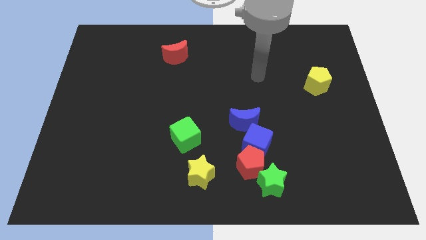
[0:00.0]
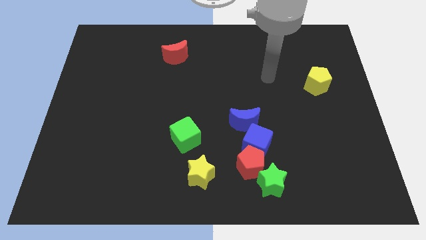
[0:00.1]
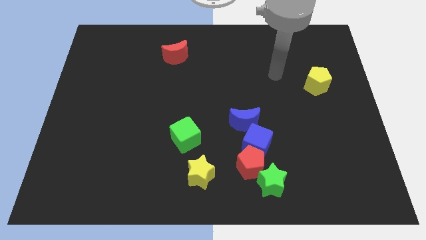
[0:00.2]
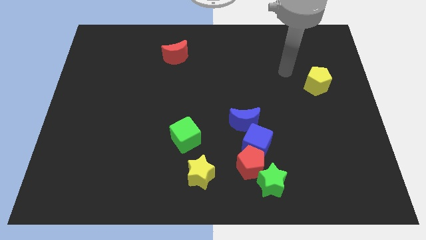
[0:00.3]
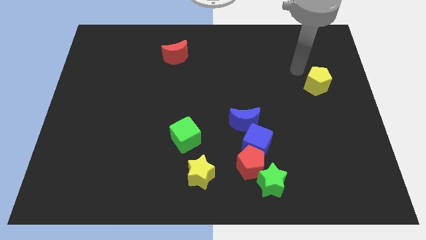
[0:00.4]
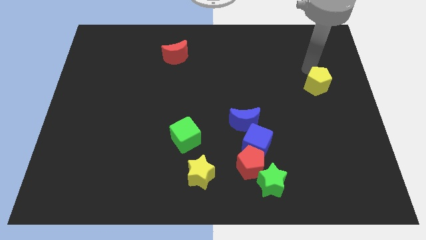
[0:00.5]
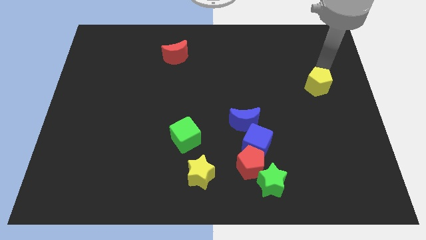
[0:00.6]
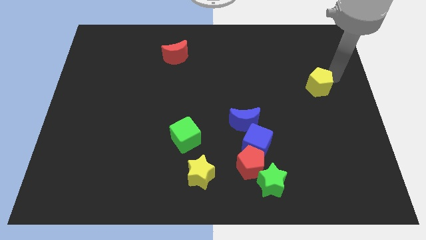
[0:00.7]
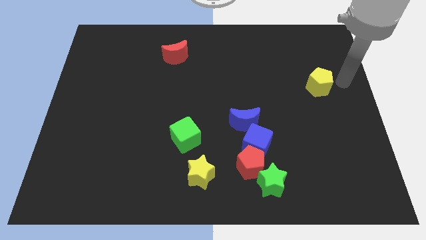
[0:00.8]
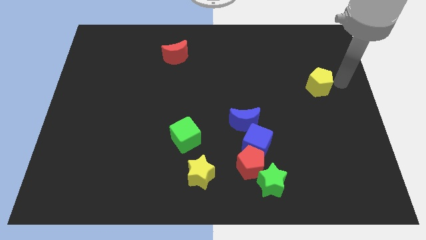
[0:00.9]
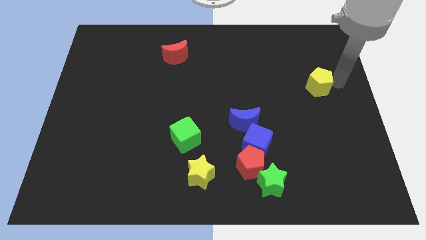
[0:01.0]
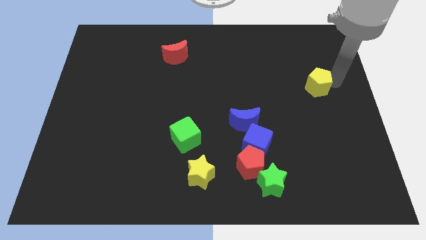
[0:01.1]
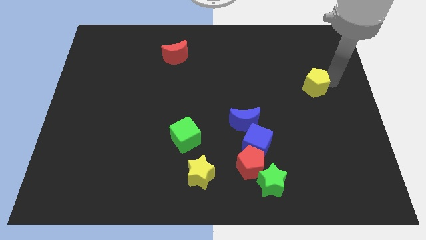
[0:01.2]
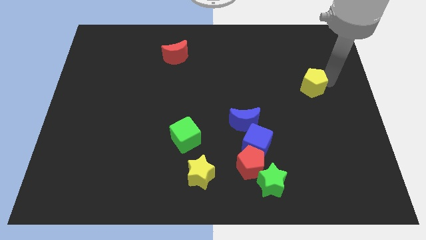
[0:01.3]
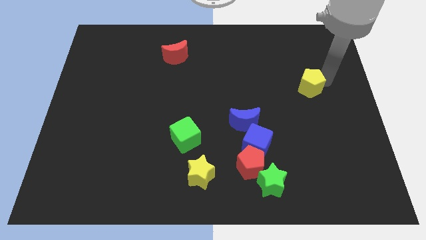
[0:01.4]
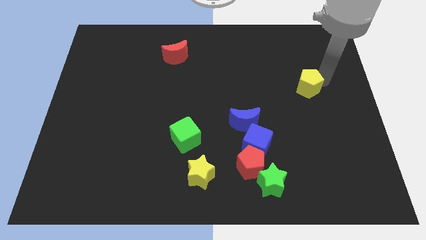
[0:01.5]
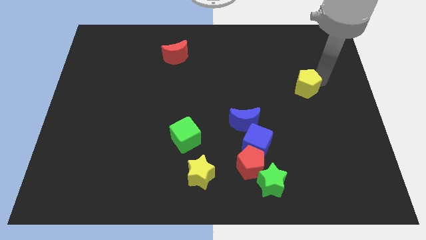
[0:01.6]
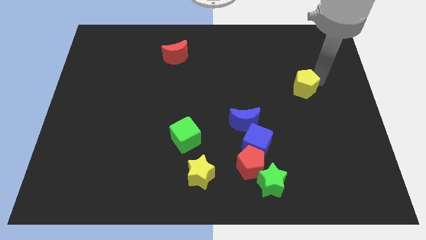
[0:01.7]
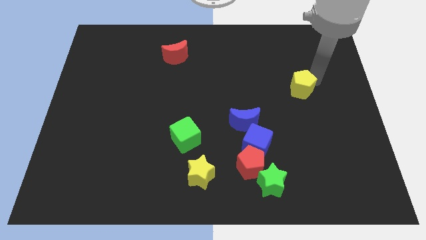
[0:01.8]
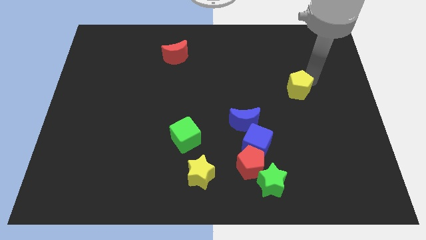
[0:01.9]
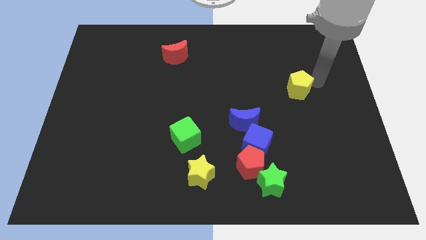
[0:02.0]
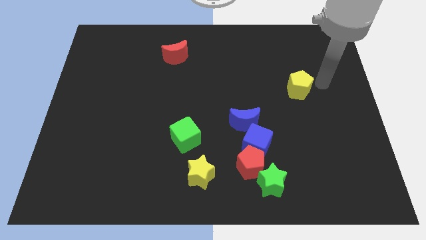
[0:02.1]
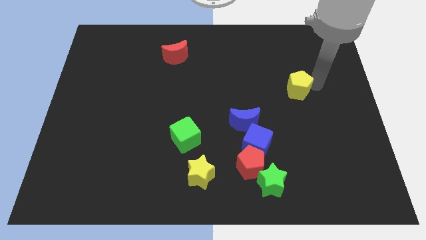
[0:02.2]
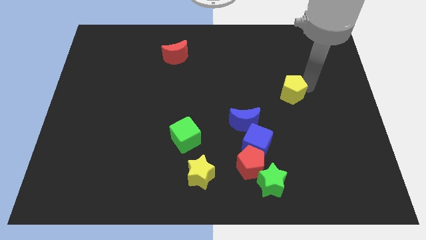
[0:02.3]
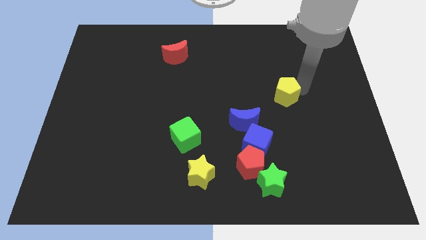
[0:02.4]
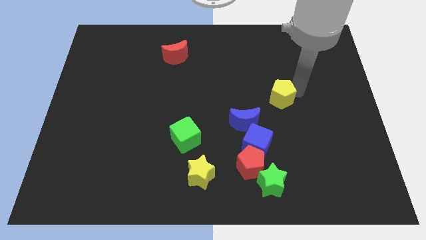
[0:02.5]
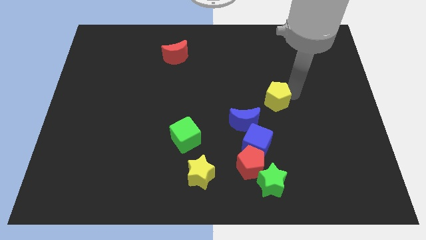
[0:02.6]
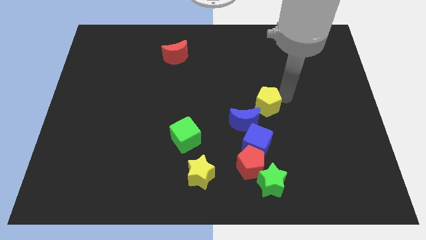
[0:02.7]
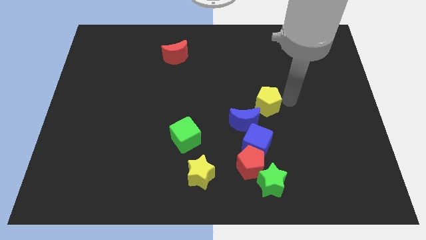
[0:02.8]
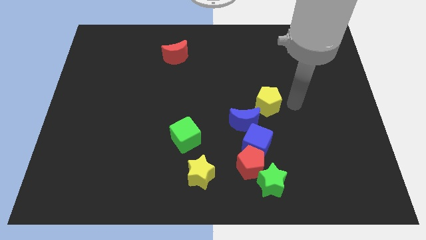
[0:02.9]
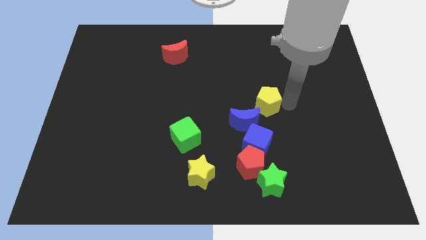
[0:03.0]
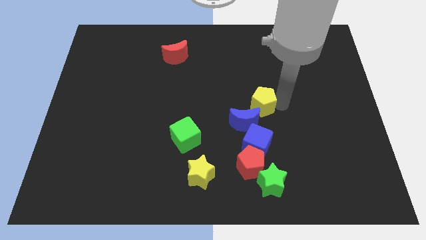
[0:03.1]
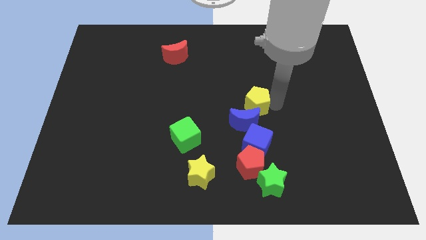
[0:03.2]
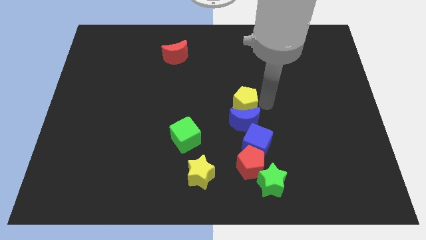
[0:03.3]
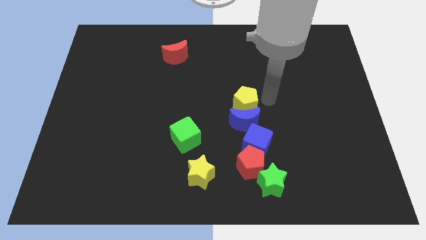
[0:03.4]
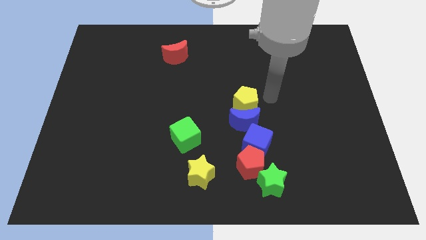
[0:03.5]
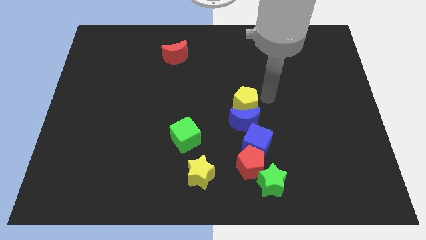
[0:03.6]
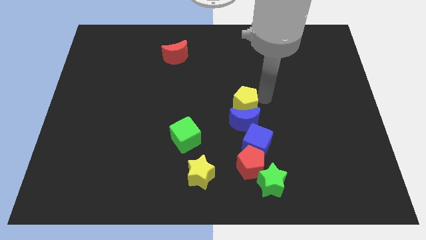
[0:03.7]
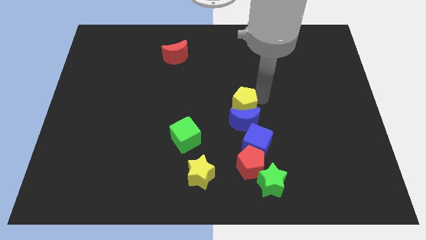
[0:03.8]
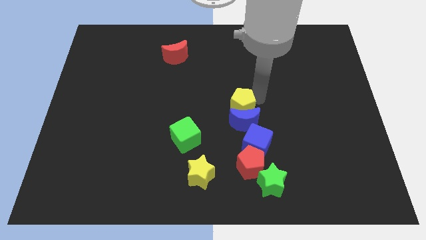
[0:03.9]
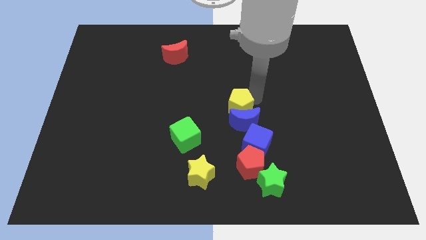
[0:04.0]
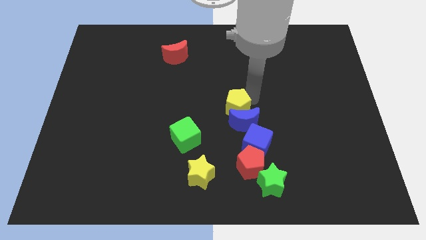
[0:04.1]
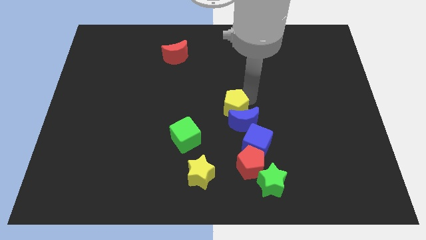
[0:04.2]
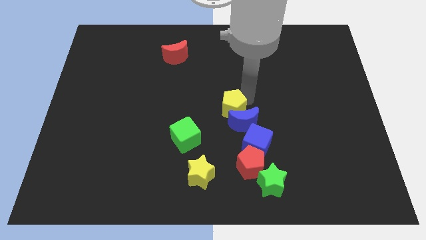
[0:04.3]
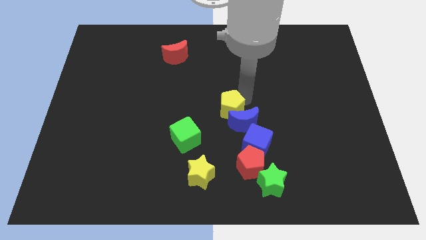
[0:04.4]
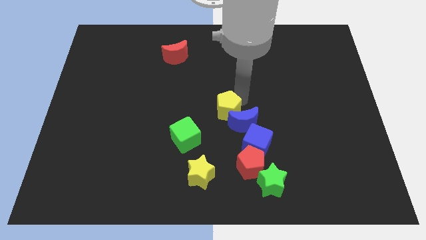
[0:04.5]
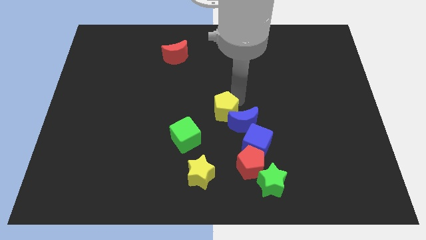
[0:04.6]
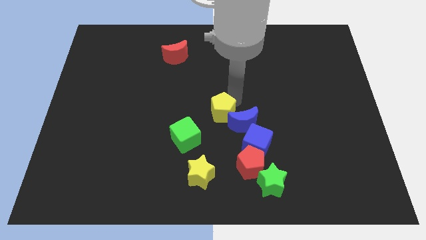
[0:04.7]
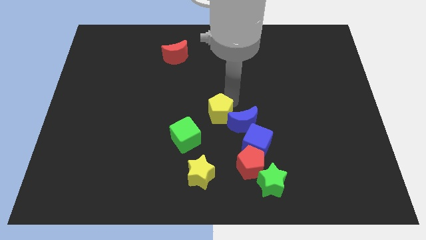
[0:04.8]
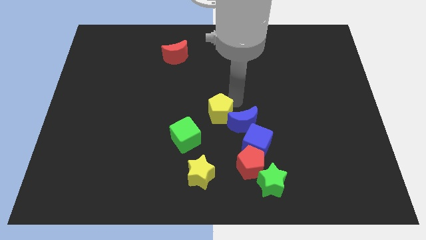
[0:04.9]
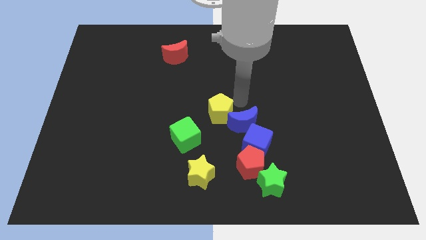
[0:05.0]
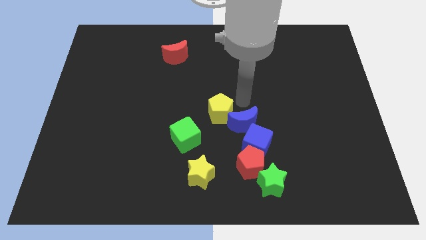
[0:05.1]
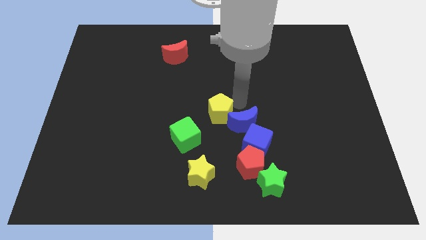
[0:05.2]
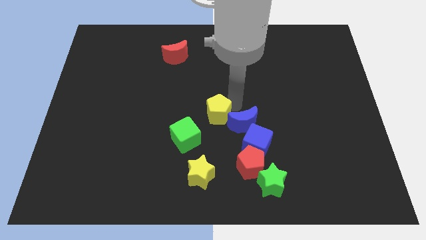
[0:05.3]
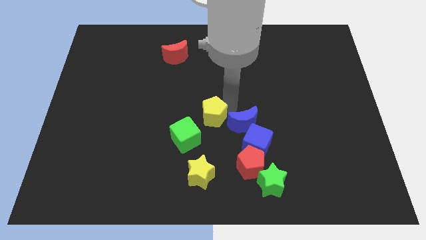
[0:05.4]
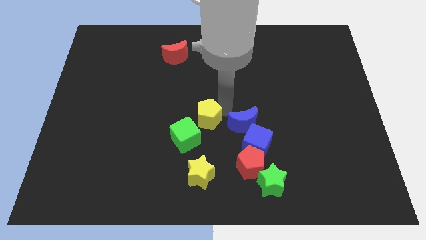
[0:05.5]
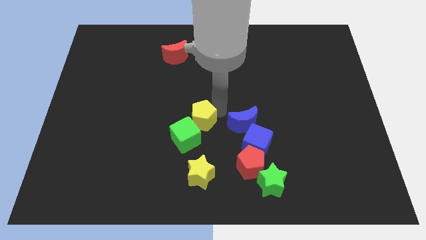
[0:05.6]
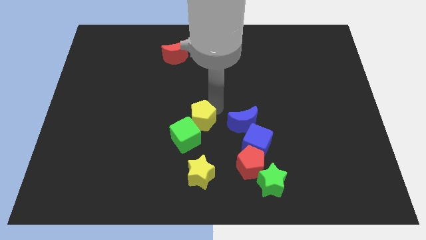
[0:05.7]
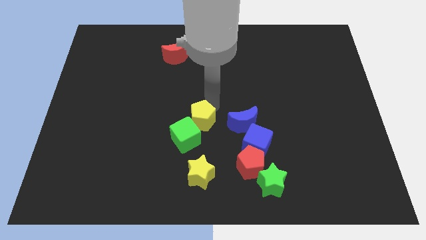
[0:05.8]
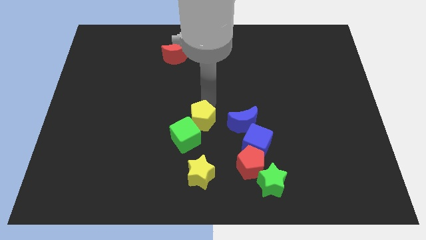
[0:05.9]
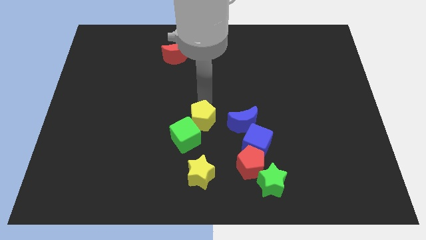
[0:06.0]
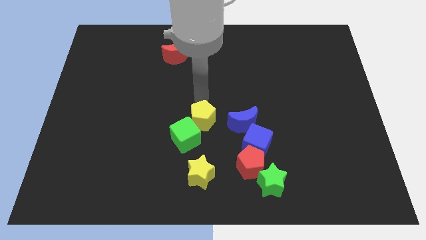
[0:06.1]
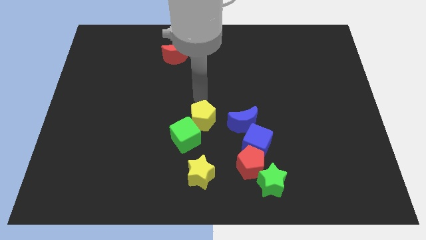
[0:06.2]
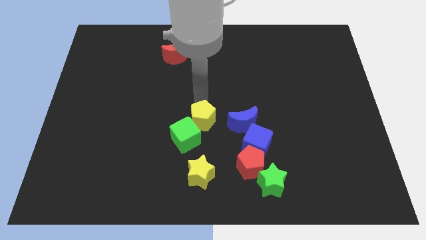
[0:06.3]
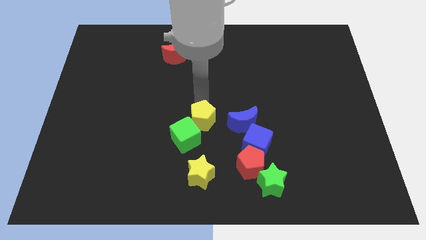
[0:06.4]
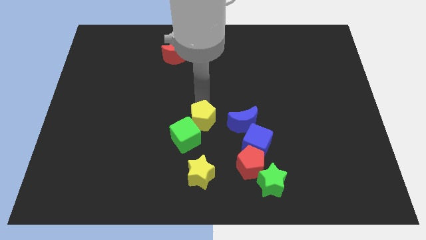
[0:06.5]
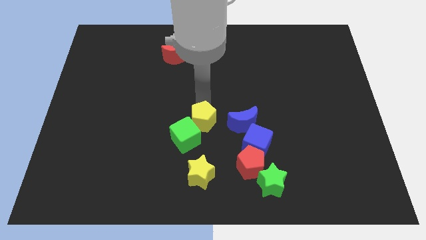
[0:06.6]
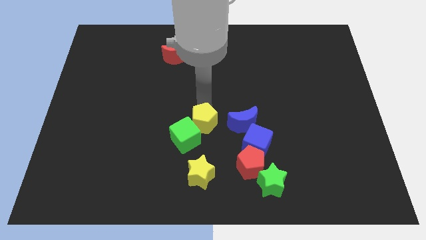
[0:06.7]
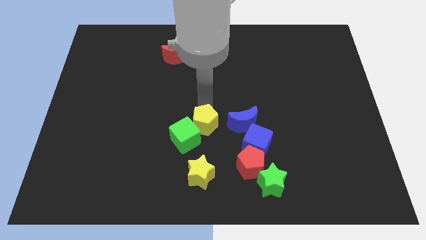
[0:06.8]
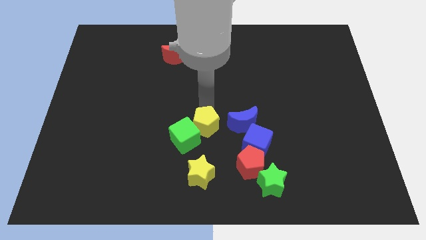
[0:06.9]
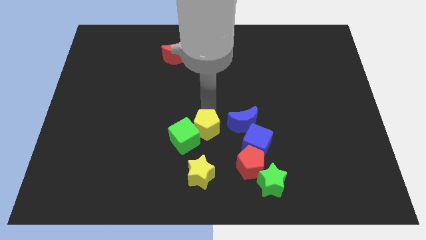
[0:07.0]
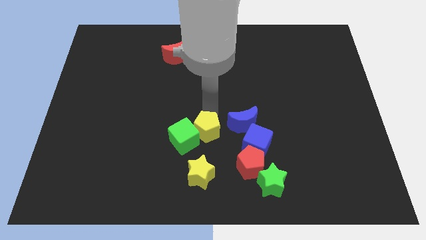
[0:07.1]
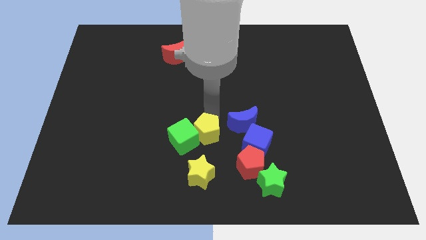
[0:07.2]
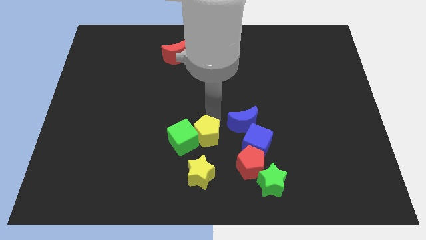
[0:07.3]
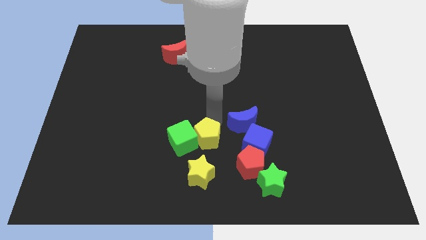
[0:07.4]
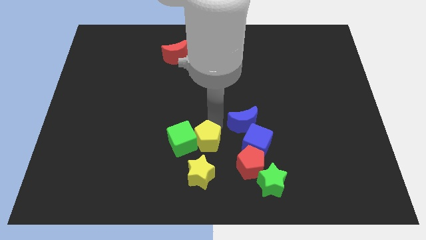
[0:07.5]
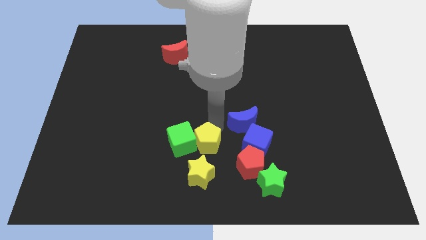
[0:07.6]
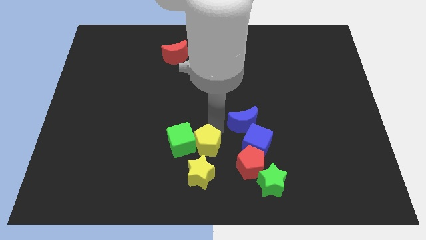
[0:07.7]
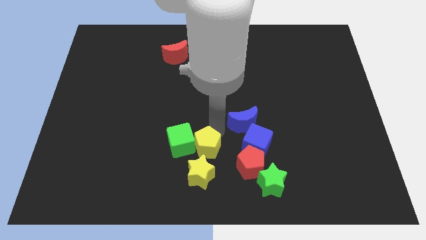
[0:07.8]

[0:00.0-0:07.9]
move the yellow pentagon to the left side of the red pentagon
